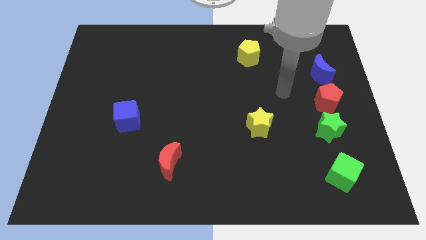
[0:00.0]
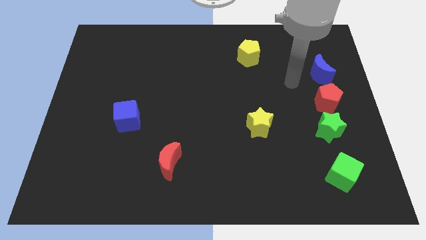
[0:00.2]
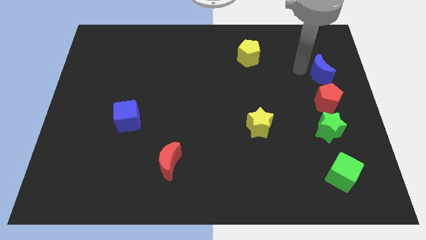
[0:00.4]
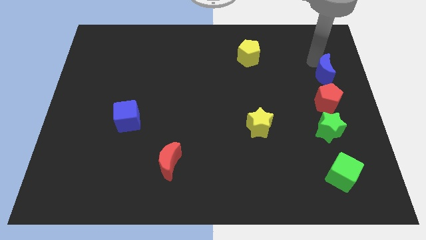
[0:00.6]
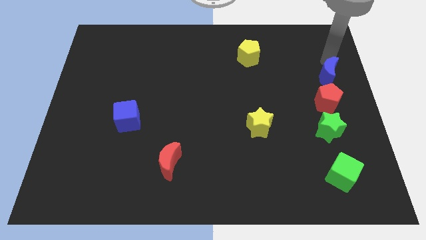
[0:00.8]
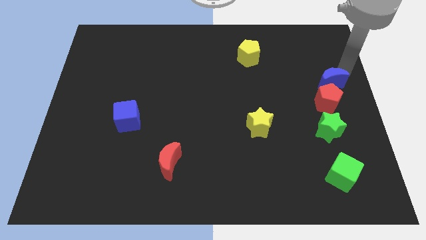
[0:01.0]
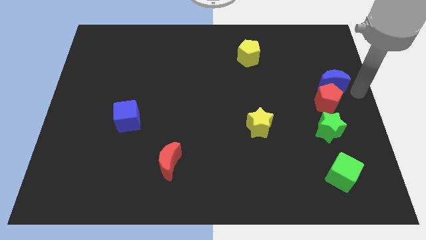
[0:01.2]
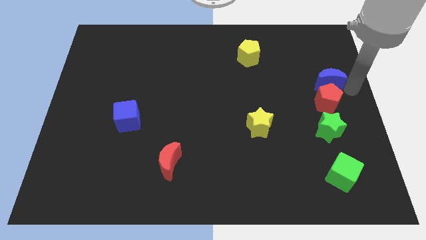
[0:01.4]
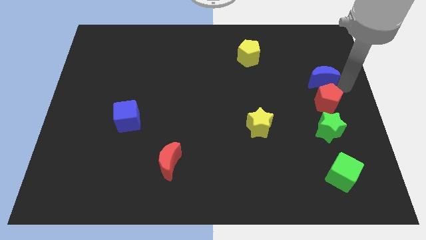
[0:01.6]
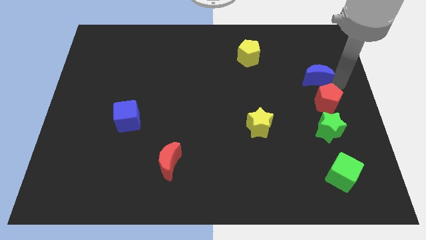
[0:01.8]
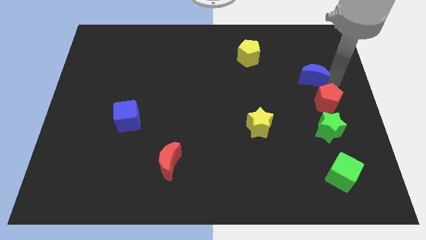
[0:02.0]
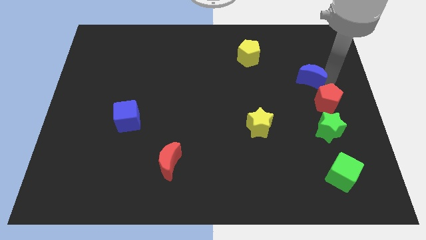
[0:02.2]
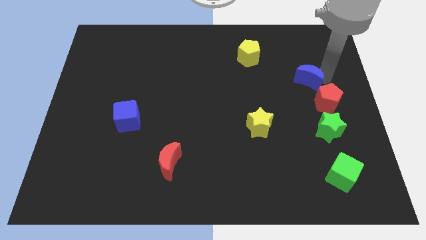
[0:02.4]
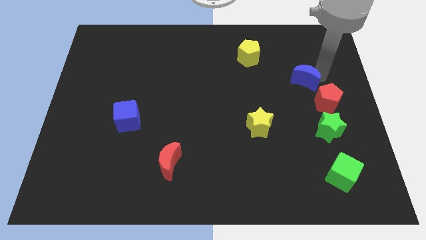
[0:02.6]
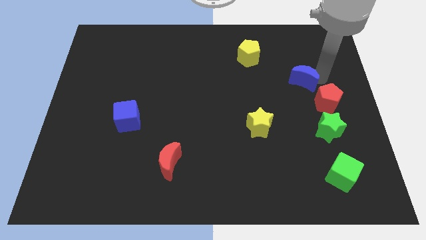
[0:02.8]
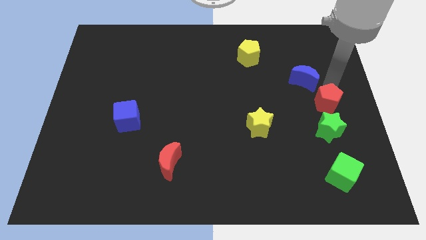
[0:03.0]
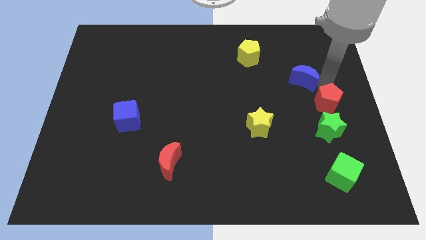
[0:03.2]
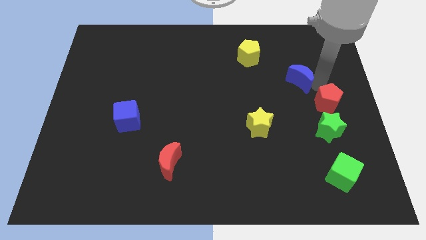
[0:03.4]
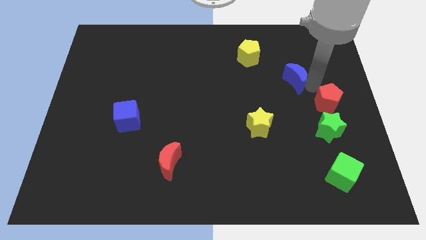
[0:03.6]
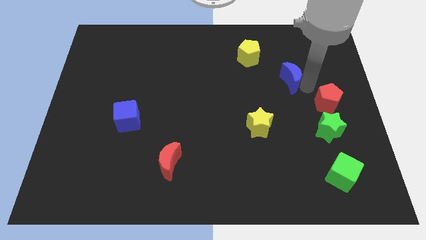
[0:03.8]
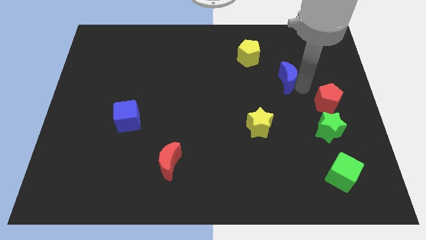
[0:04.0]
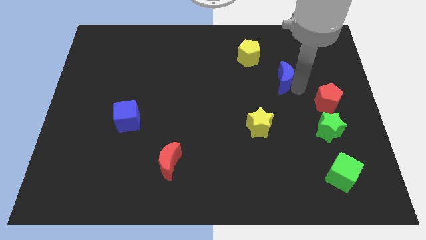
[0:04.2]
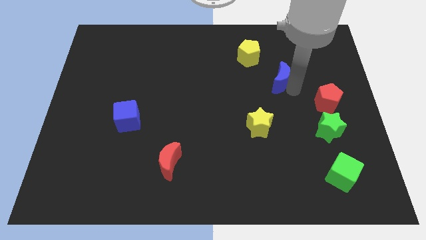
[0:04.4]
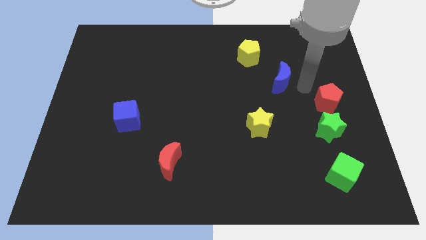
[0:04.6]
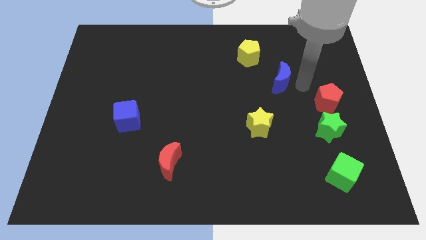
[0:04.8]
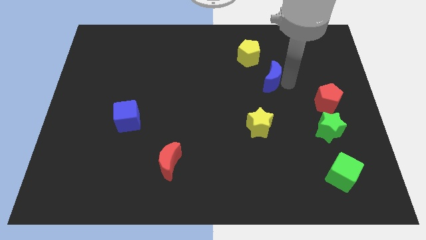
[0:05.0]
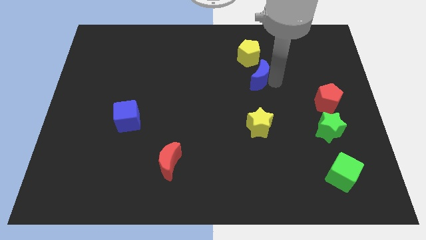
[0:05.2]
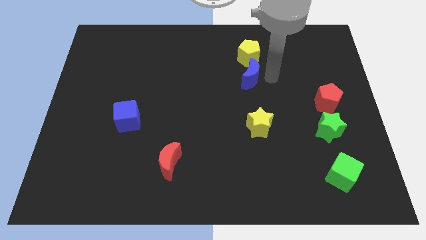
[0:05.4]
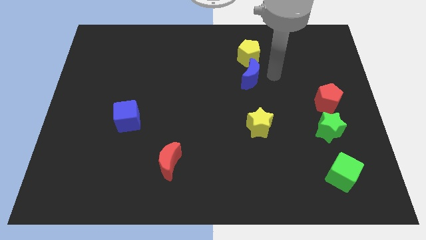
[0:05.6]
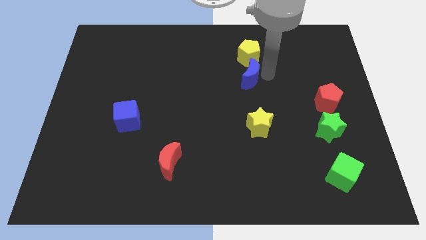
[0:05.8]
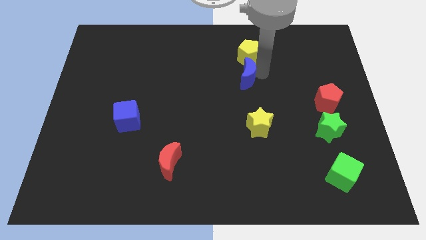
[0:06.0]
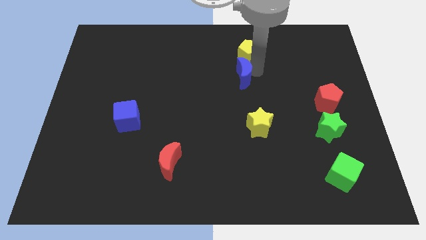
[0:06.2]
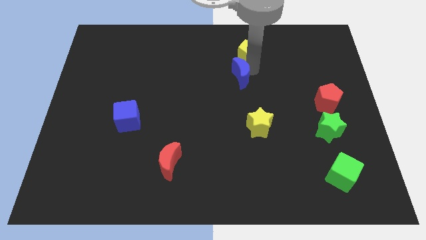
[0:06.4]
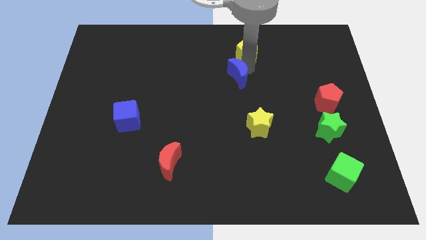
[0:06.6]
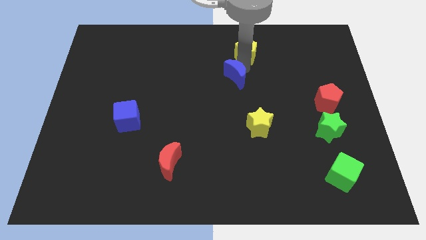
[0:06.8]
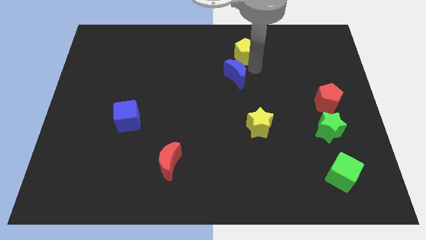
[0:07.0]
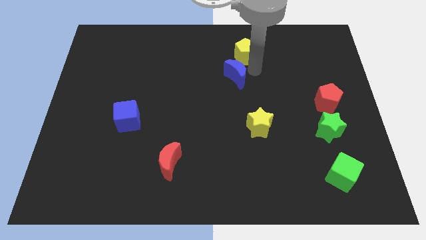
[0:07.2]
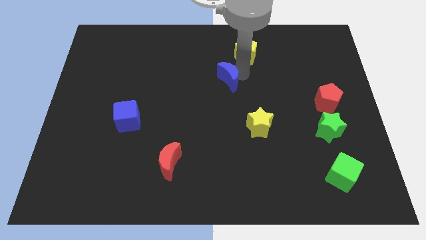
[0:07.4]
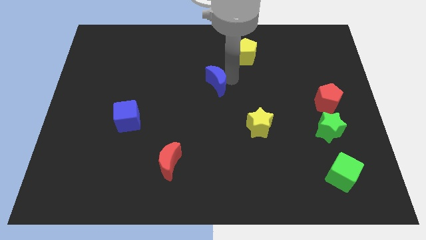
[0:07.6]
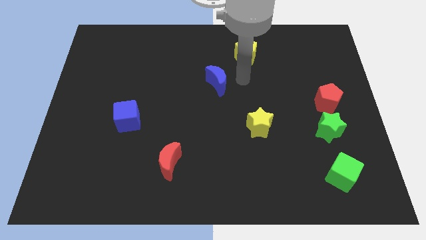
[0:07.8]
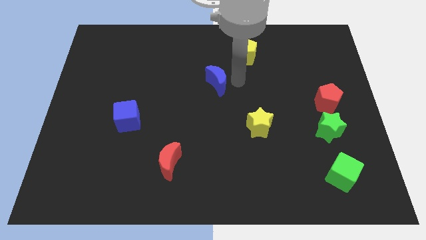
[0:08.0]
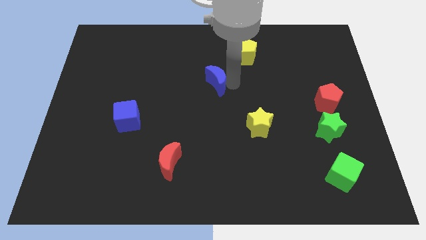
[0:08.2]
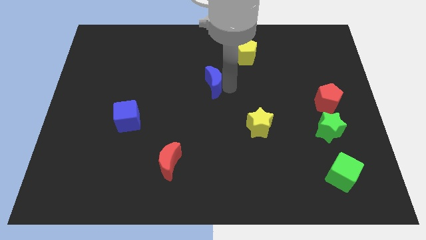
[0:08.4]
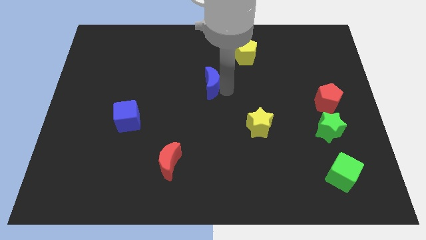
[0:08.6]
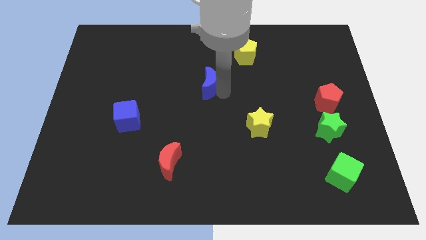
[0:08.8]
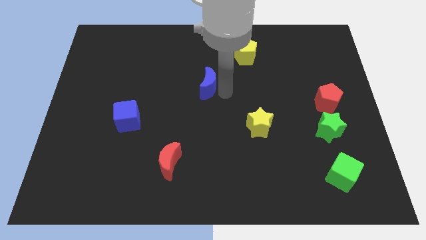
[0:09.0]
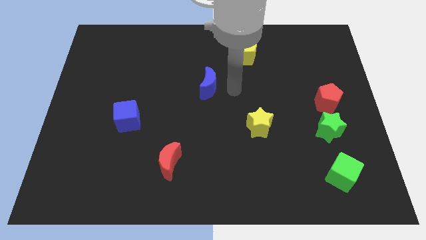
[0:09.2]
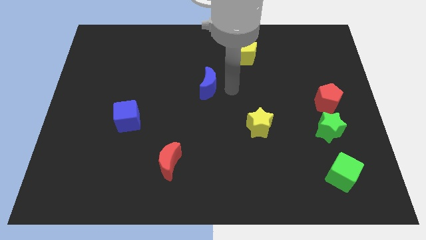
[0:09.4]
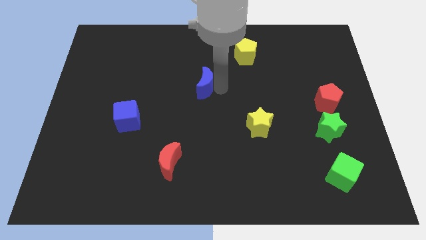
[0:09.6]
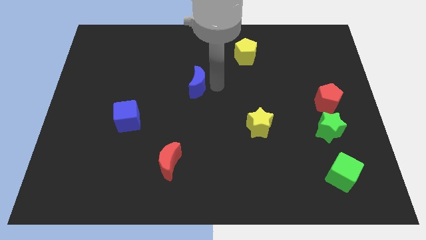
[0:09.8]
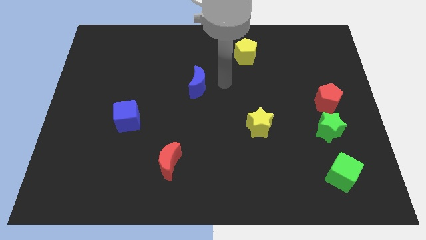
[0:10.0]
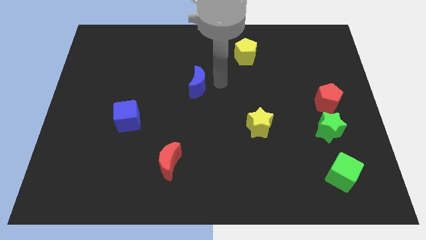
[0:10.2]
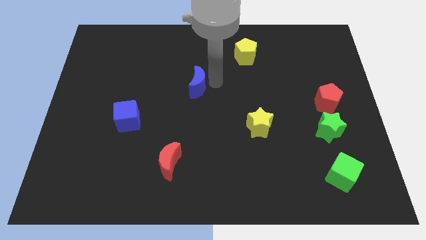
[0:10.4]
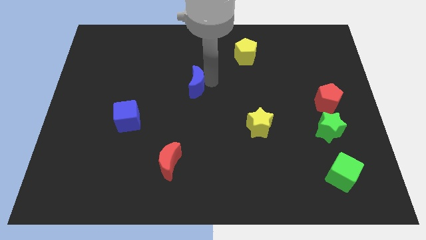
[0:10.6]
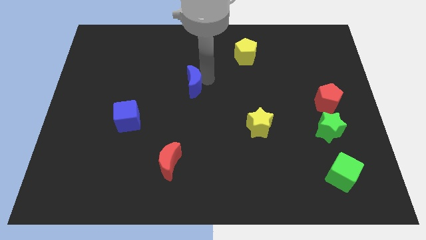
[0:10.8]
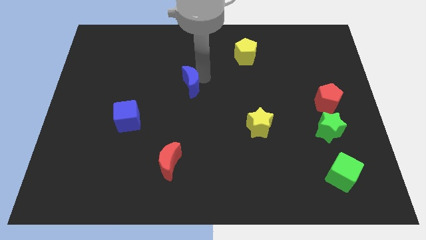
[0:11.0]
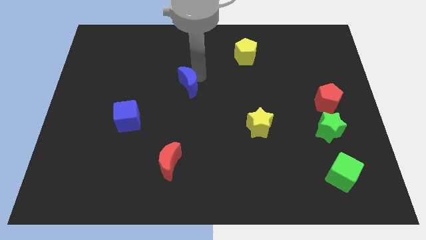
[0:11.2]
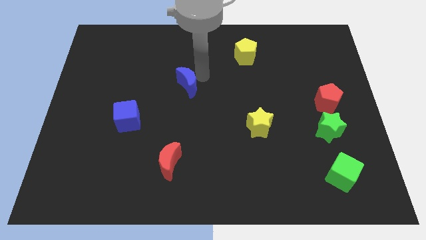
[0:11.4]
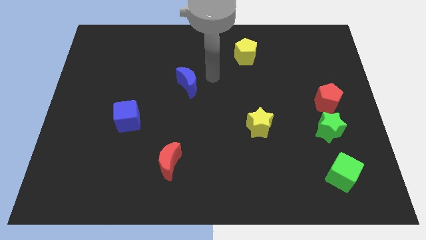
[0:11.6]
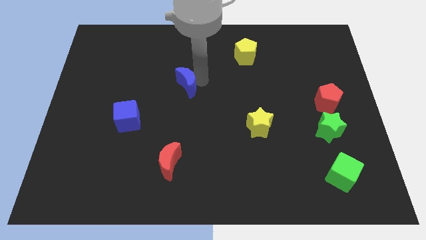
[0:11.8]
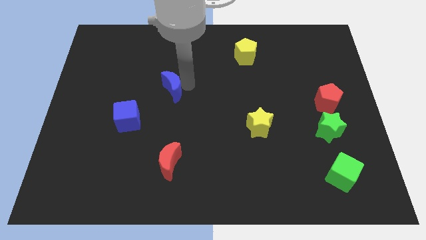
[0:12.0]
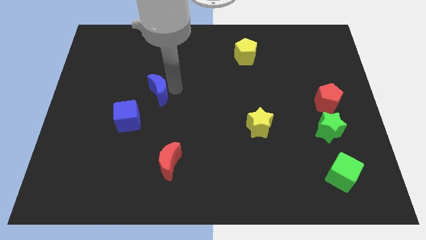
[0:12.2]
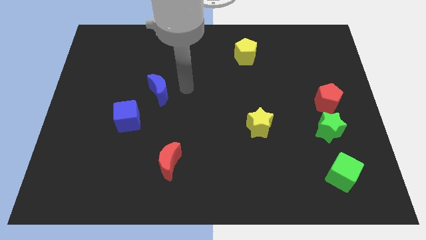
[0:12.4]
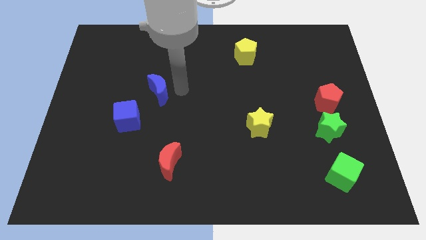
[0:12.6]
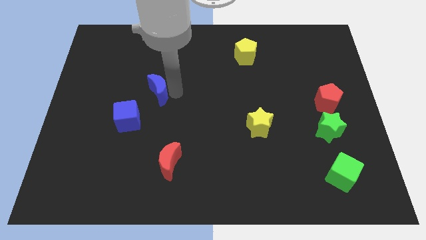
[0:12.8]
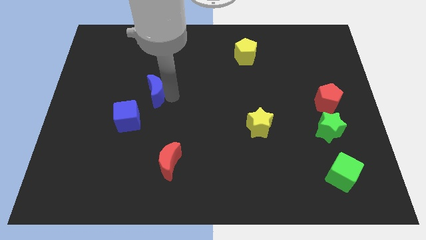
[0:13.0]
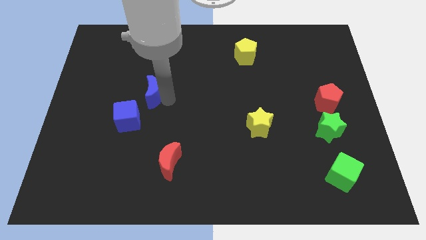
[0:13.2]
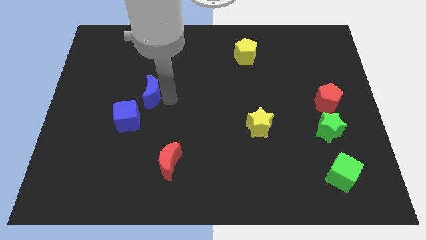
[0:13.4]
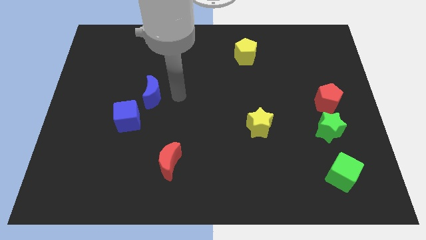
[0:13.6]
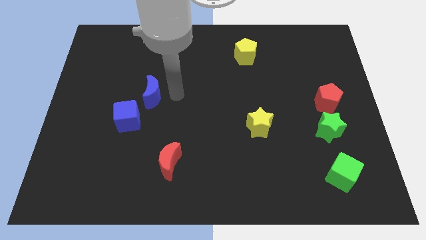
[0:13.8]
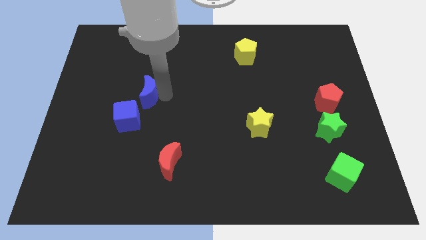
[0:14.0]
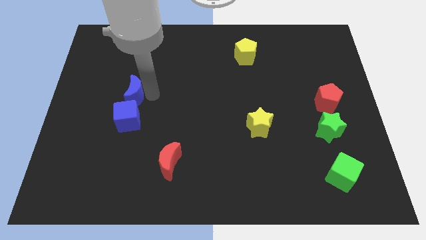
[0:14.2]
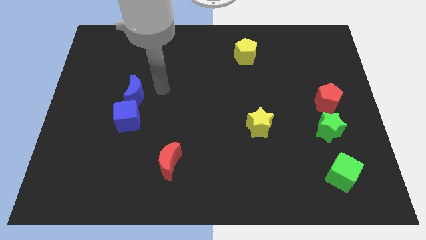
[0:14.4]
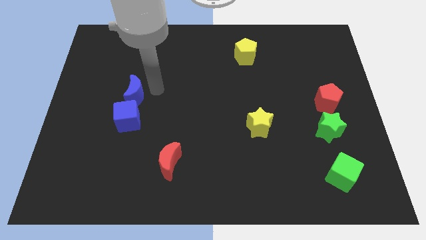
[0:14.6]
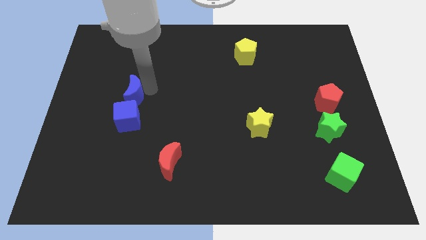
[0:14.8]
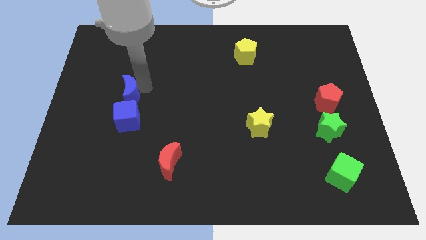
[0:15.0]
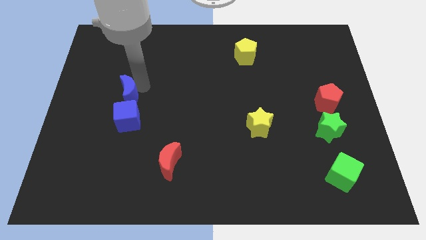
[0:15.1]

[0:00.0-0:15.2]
put the blue moon diagonally up and to the left of the blue cube

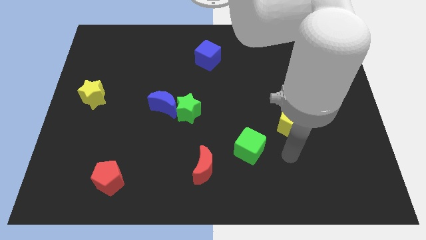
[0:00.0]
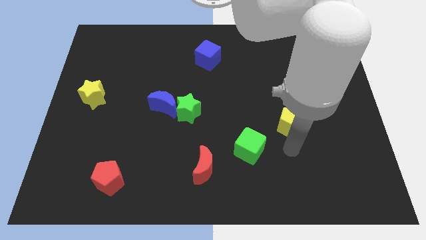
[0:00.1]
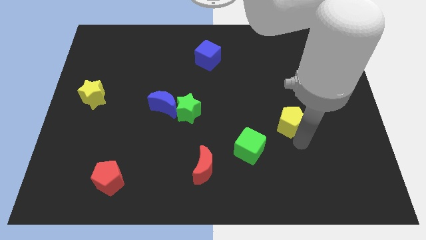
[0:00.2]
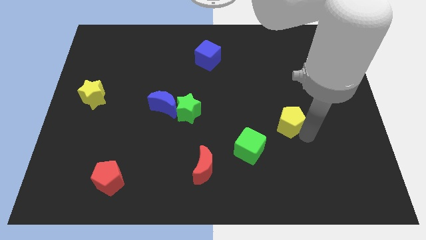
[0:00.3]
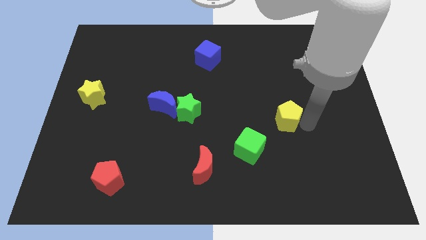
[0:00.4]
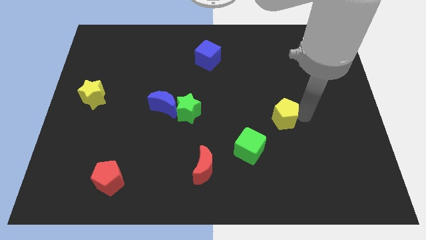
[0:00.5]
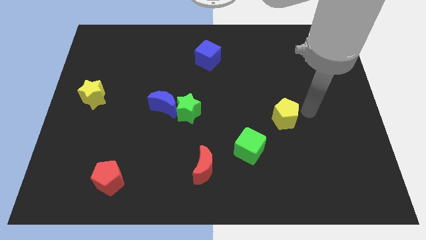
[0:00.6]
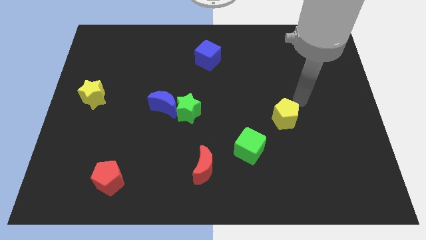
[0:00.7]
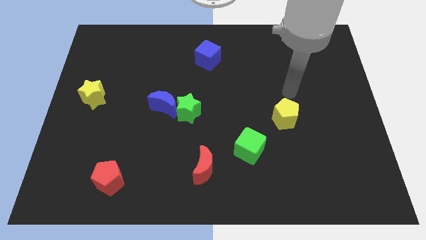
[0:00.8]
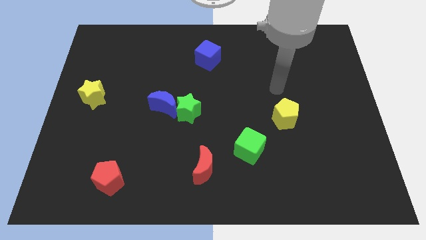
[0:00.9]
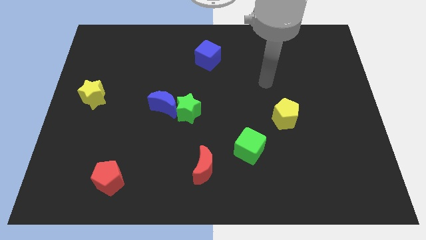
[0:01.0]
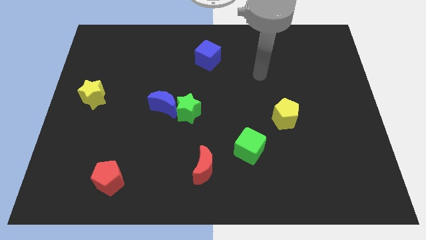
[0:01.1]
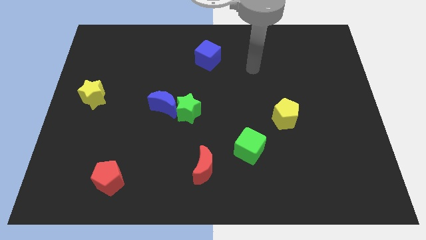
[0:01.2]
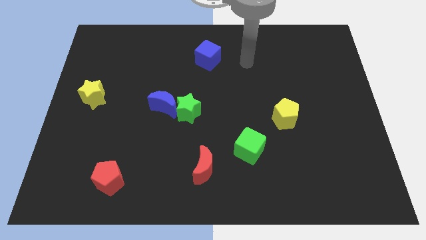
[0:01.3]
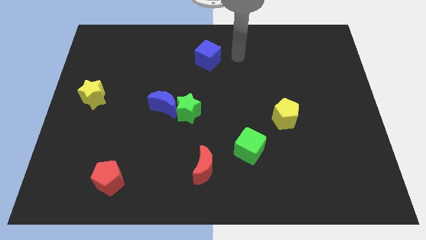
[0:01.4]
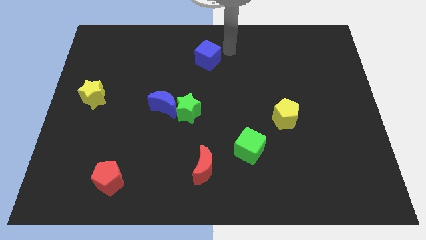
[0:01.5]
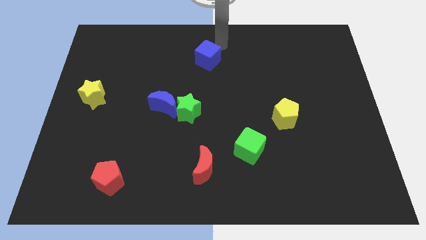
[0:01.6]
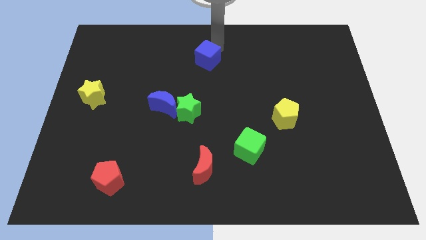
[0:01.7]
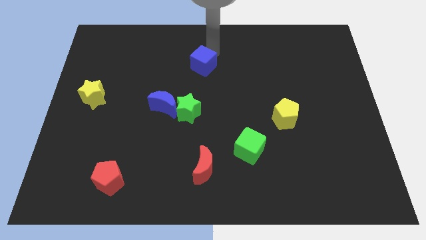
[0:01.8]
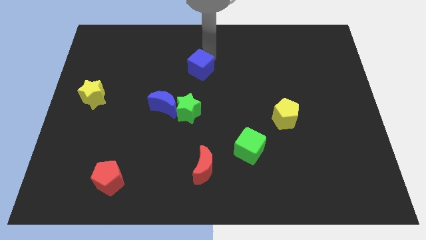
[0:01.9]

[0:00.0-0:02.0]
push the blue cube above the green star
